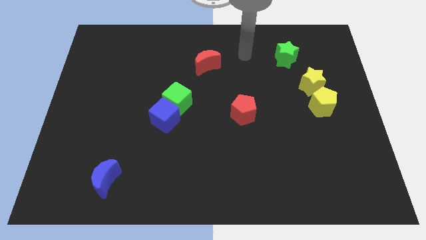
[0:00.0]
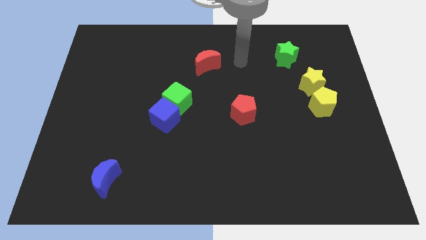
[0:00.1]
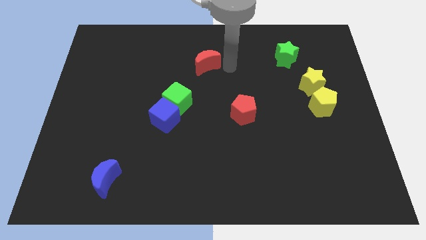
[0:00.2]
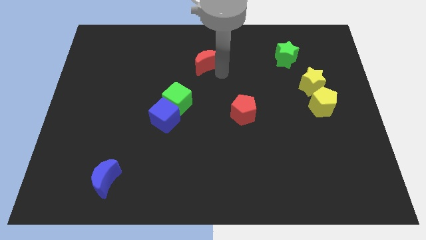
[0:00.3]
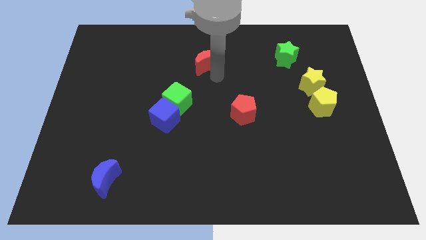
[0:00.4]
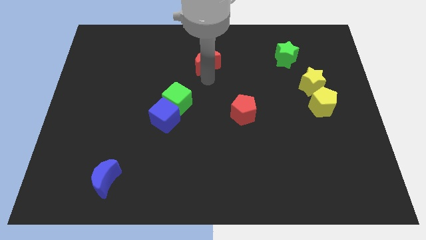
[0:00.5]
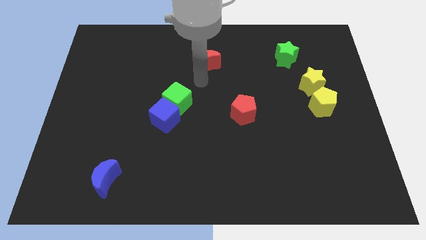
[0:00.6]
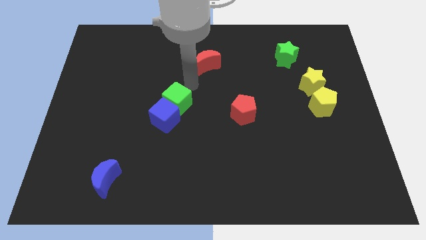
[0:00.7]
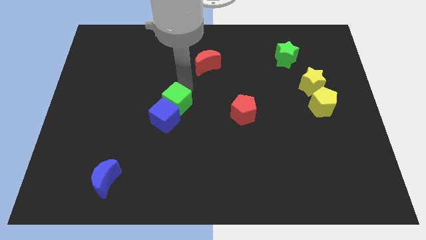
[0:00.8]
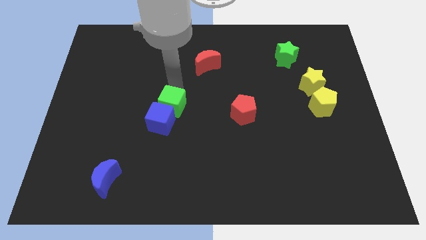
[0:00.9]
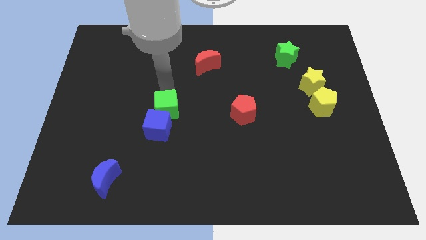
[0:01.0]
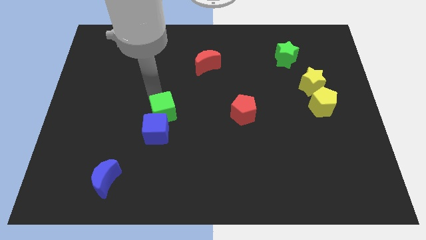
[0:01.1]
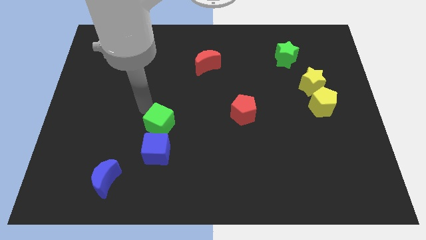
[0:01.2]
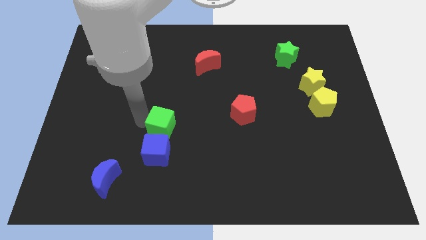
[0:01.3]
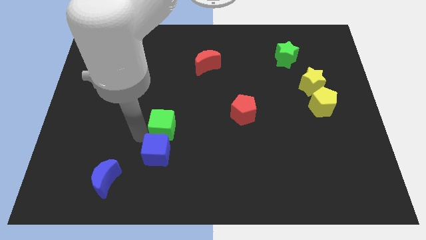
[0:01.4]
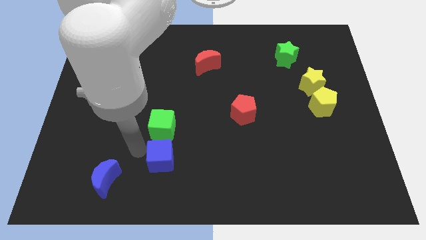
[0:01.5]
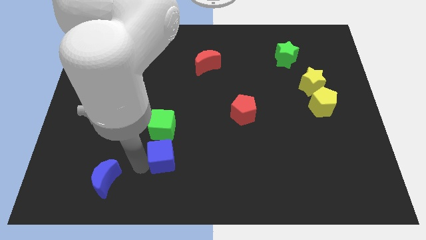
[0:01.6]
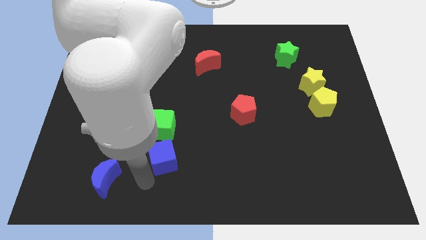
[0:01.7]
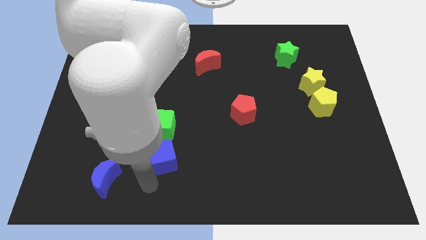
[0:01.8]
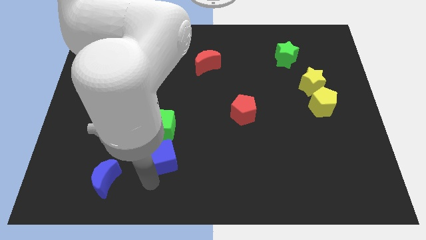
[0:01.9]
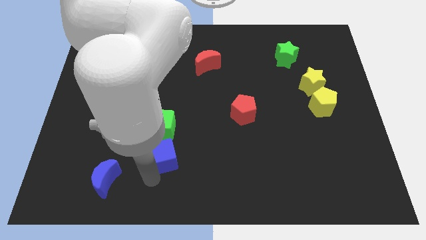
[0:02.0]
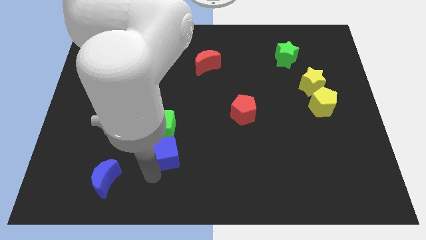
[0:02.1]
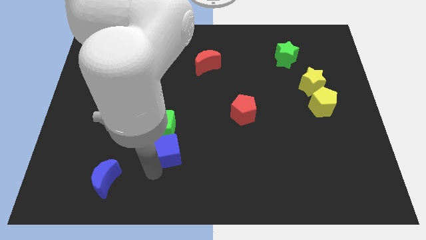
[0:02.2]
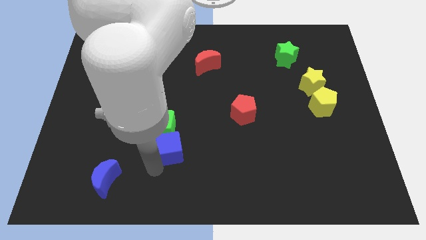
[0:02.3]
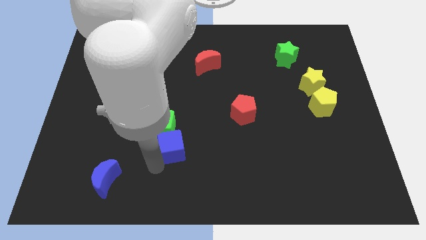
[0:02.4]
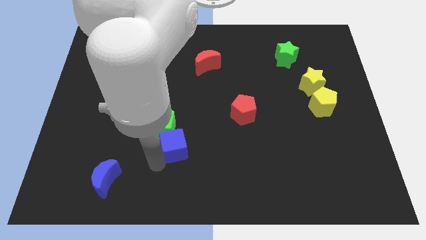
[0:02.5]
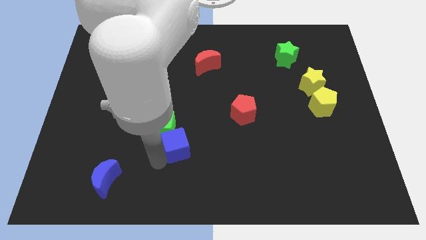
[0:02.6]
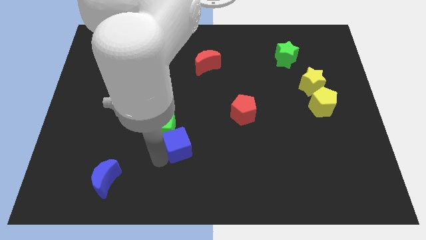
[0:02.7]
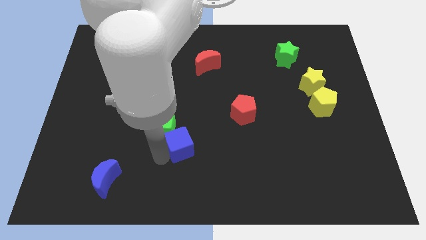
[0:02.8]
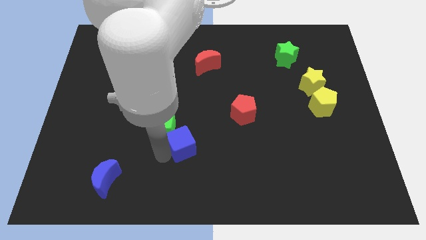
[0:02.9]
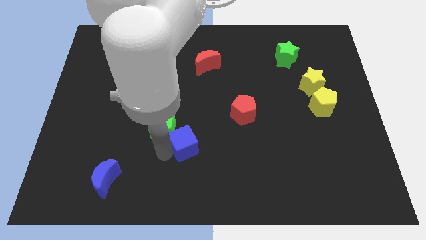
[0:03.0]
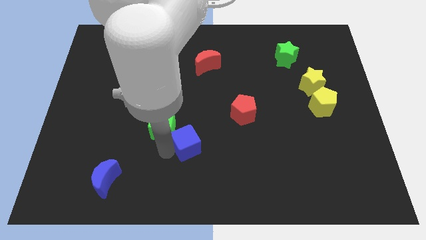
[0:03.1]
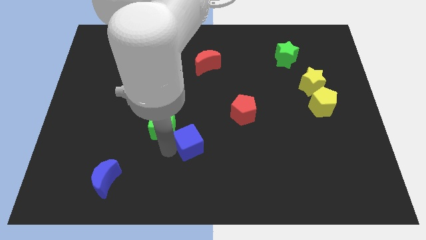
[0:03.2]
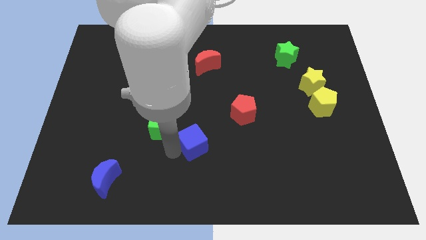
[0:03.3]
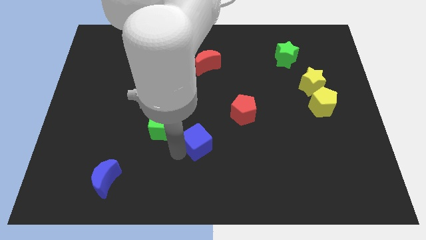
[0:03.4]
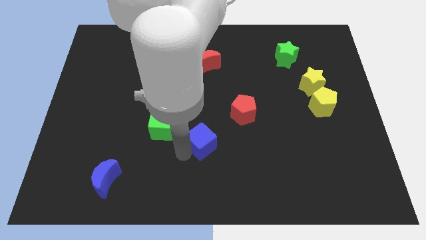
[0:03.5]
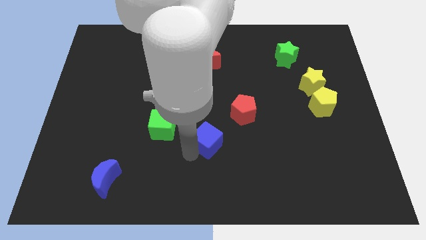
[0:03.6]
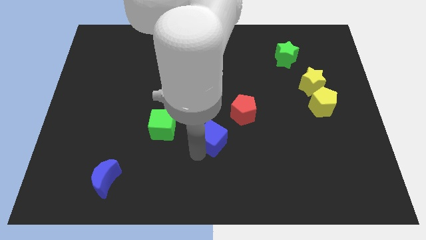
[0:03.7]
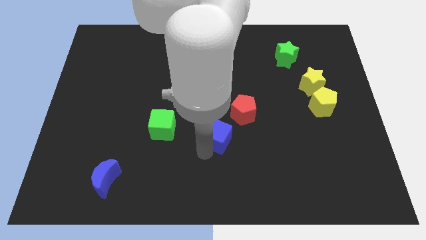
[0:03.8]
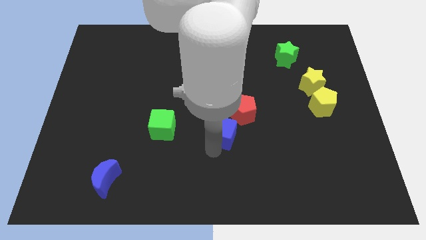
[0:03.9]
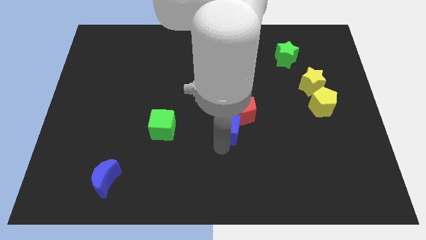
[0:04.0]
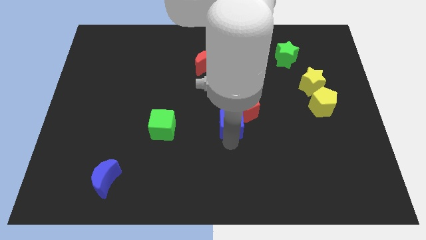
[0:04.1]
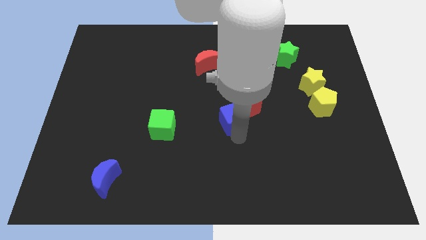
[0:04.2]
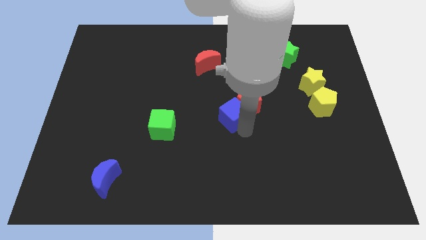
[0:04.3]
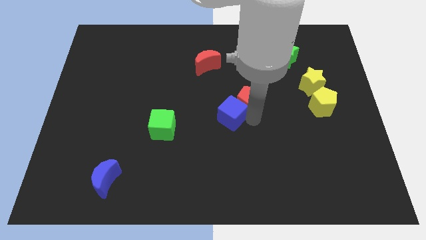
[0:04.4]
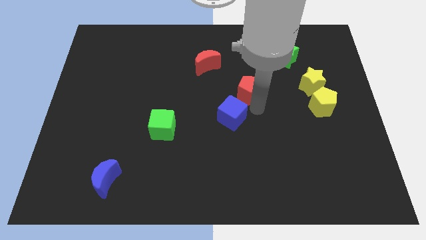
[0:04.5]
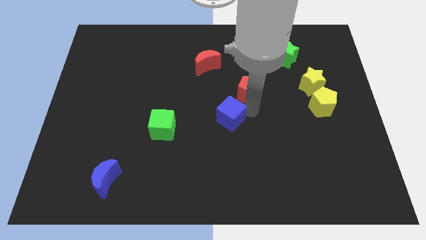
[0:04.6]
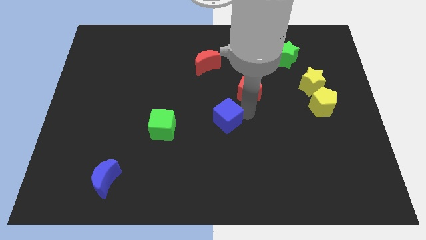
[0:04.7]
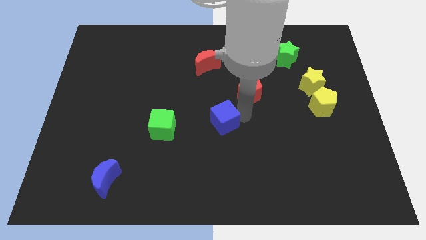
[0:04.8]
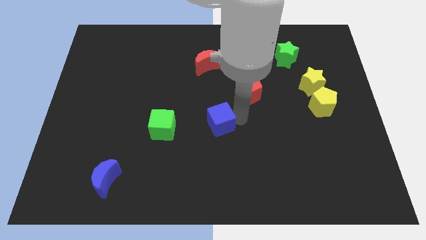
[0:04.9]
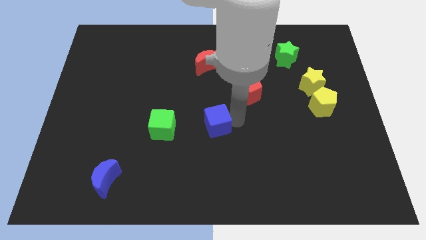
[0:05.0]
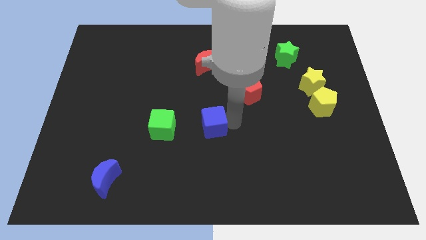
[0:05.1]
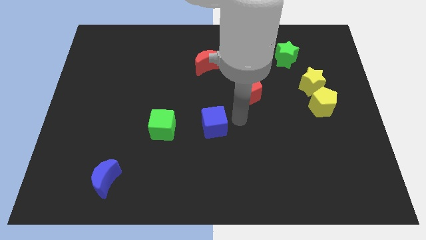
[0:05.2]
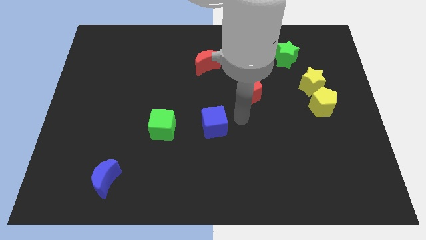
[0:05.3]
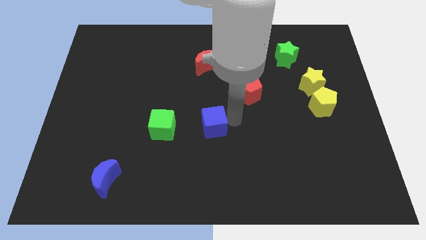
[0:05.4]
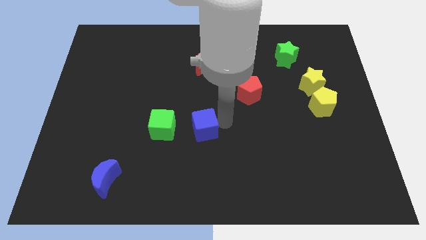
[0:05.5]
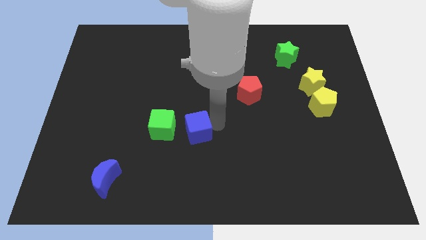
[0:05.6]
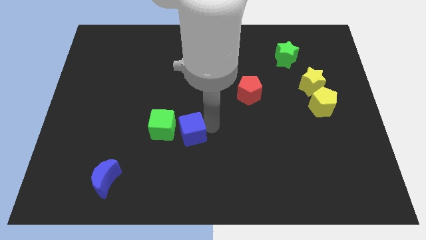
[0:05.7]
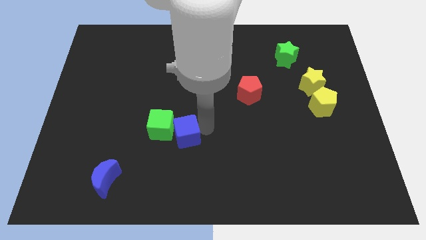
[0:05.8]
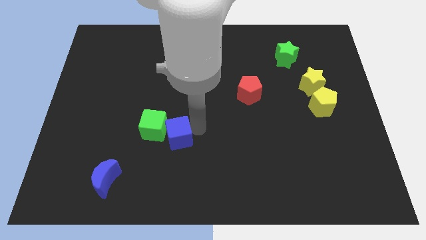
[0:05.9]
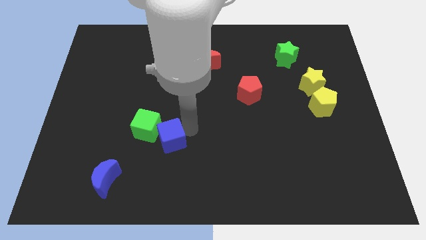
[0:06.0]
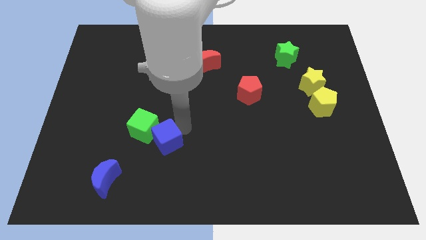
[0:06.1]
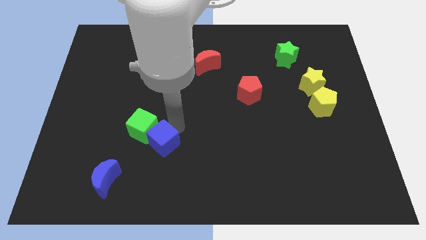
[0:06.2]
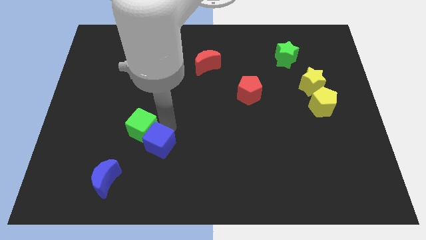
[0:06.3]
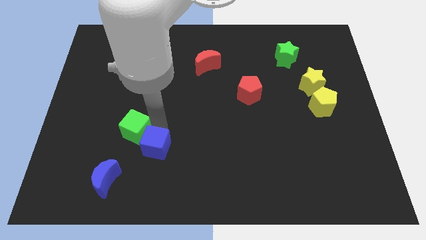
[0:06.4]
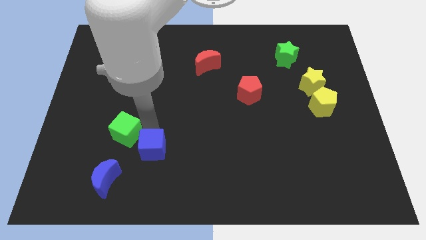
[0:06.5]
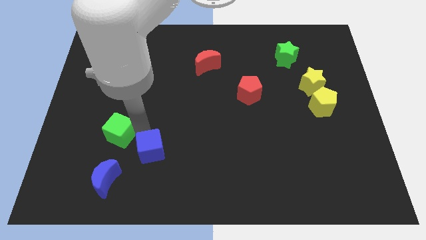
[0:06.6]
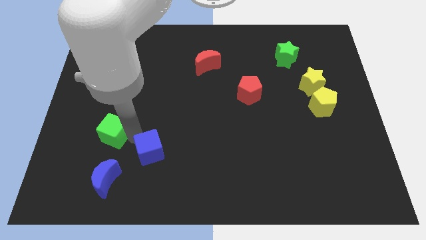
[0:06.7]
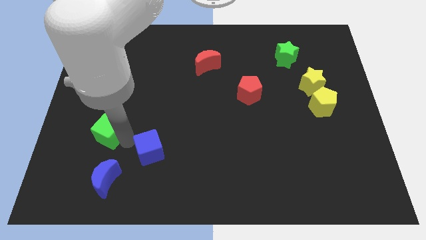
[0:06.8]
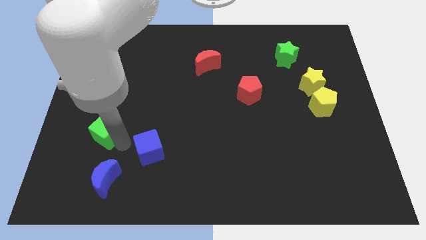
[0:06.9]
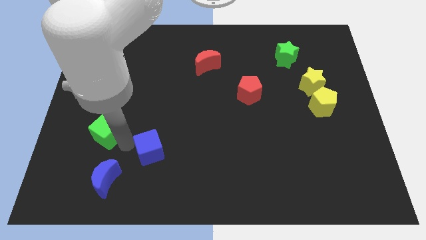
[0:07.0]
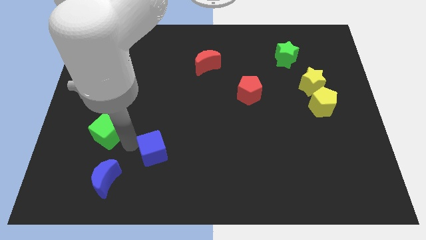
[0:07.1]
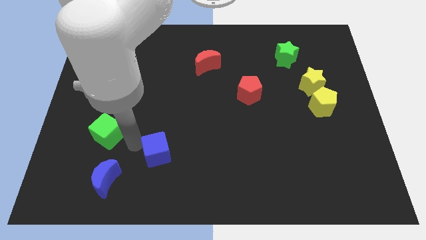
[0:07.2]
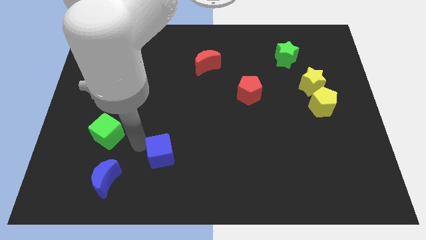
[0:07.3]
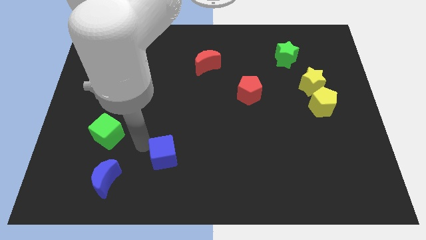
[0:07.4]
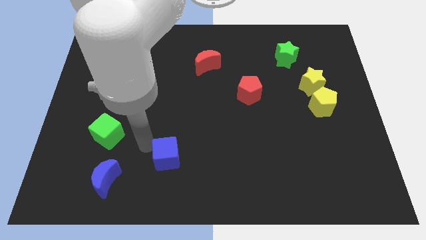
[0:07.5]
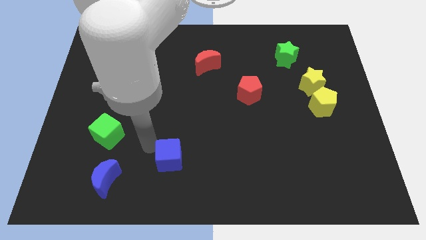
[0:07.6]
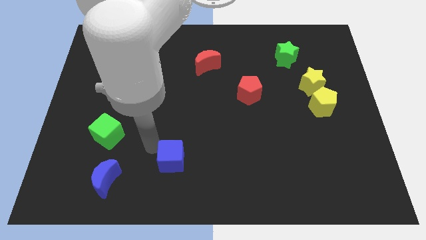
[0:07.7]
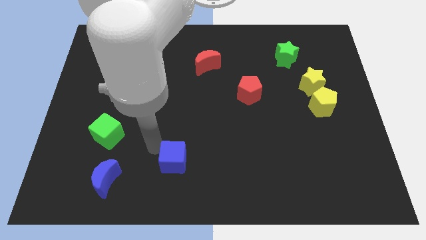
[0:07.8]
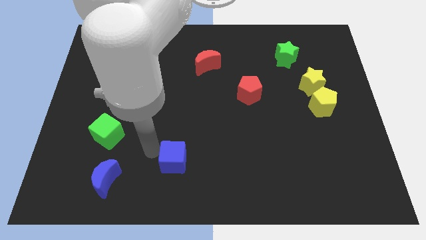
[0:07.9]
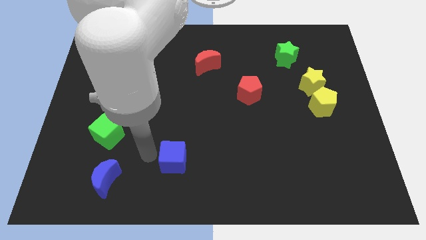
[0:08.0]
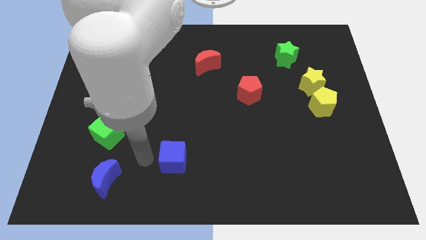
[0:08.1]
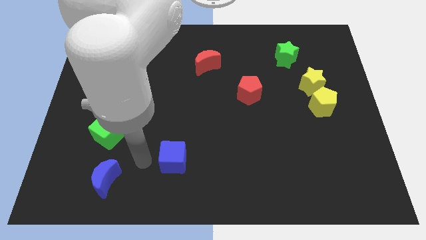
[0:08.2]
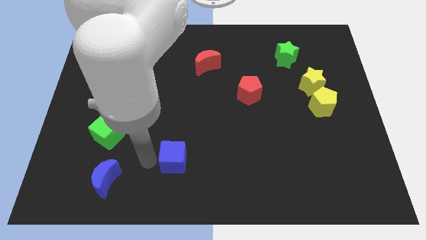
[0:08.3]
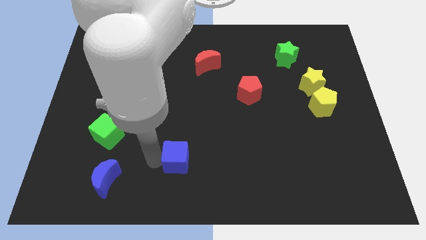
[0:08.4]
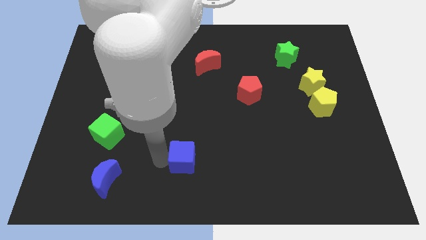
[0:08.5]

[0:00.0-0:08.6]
slide the blue cube to the bottom side
